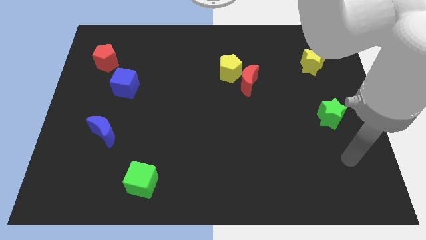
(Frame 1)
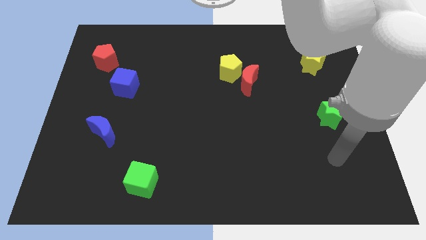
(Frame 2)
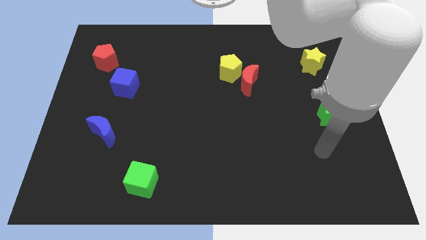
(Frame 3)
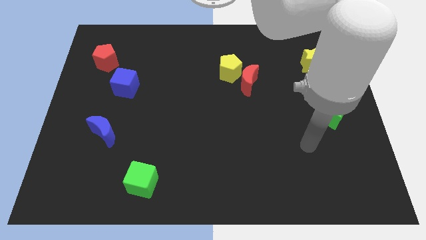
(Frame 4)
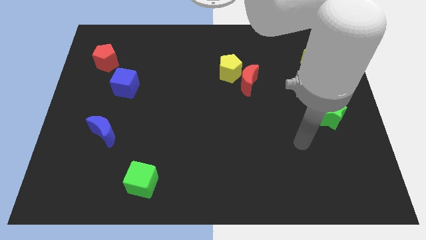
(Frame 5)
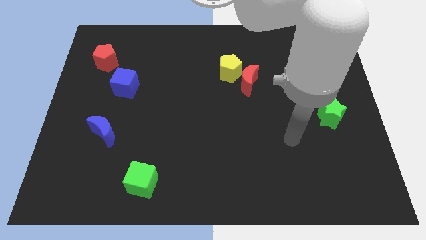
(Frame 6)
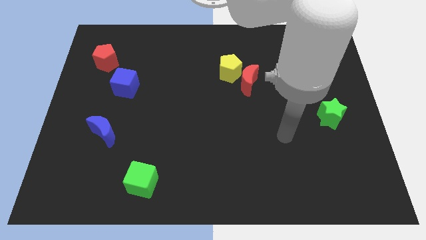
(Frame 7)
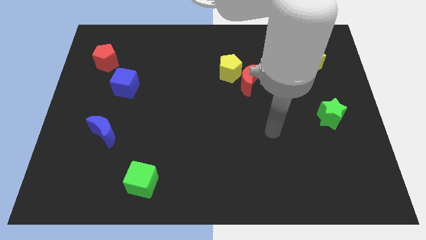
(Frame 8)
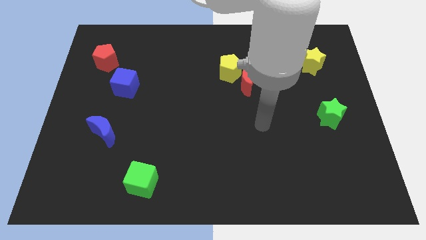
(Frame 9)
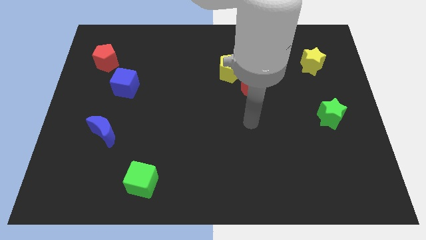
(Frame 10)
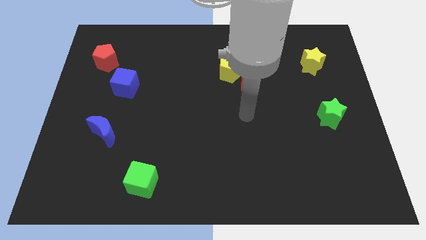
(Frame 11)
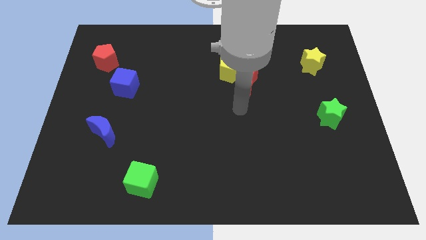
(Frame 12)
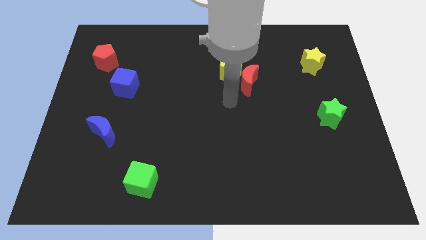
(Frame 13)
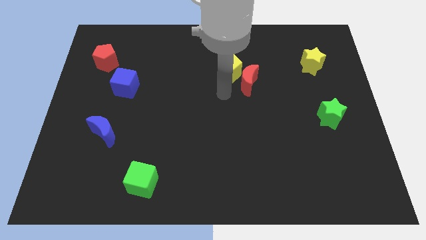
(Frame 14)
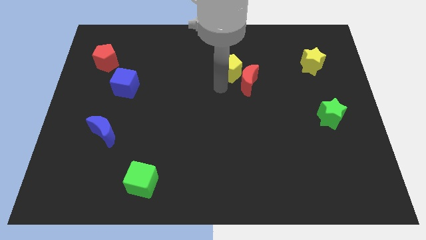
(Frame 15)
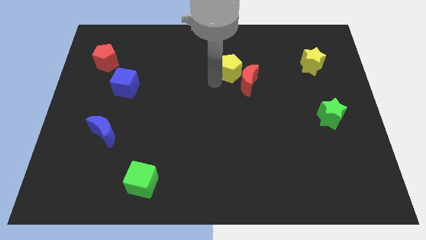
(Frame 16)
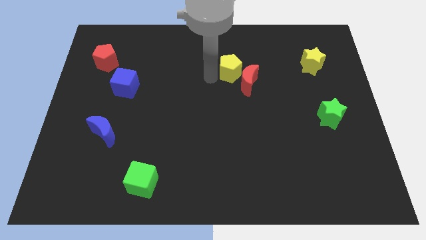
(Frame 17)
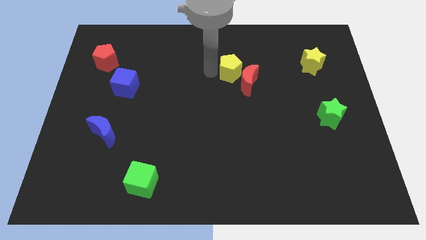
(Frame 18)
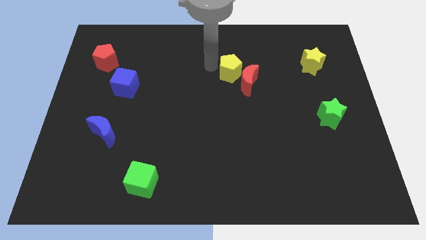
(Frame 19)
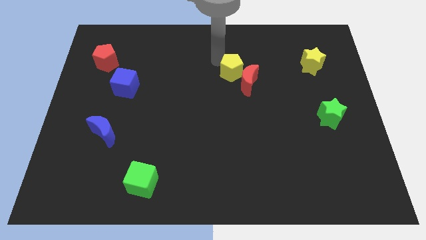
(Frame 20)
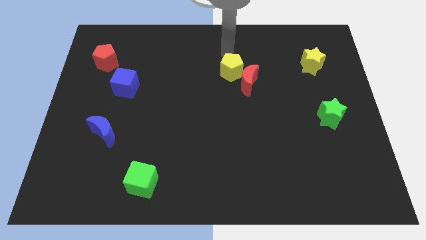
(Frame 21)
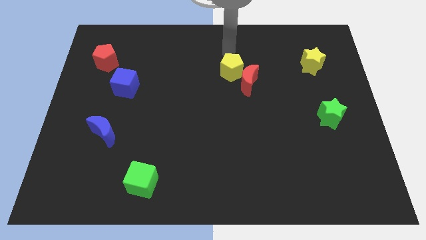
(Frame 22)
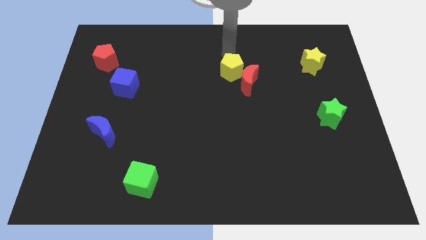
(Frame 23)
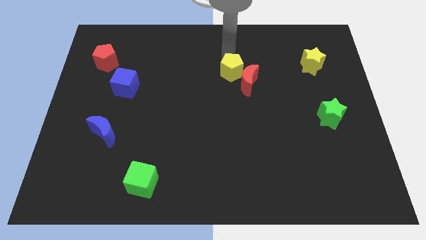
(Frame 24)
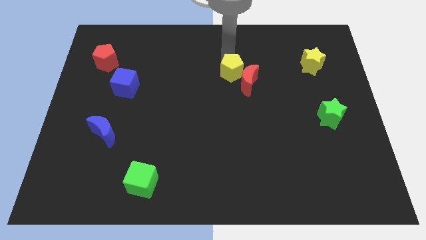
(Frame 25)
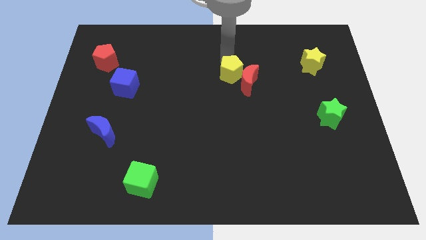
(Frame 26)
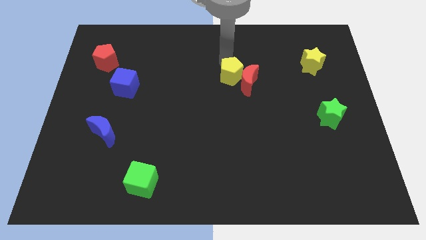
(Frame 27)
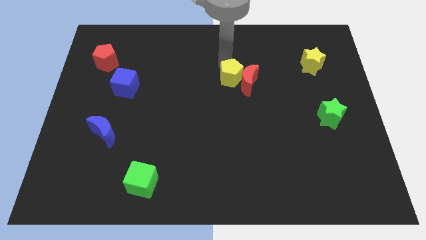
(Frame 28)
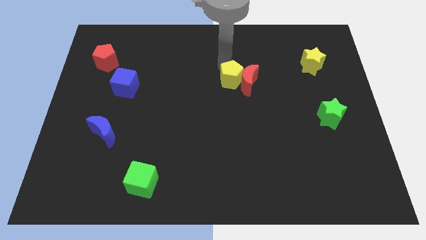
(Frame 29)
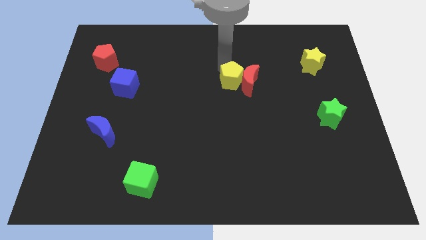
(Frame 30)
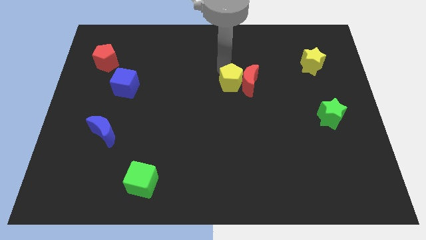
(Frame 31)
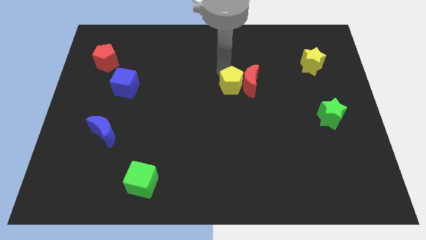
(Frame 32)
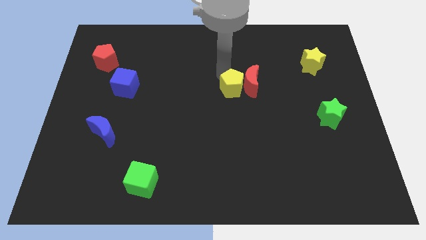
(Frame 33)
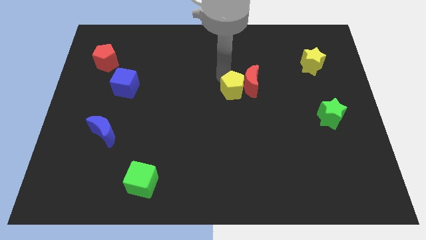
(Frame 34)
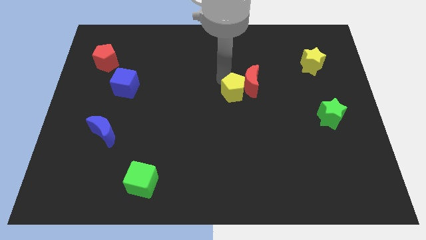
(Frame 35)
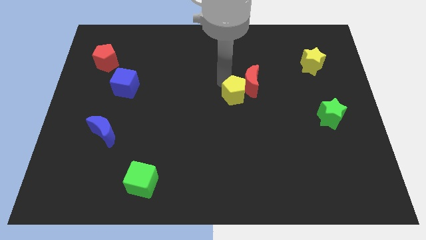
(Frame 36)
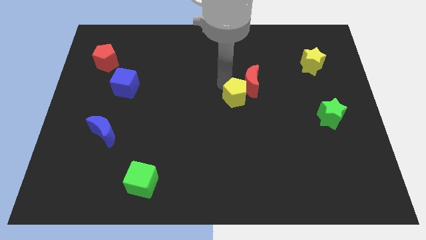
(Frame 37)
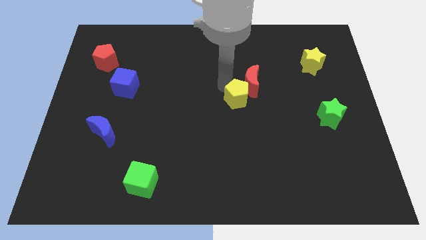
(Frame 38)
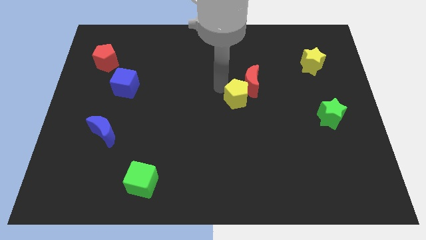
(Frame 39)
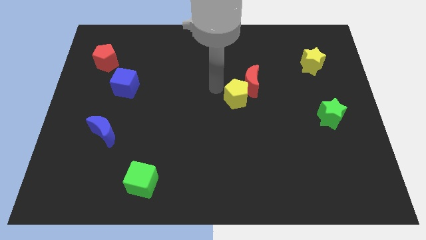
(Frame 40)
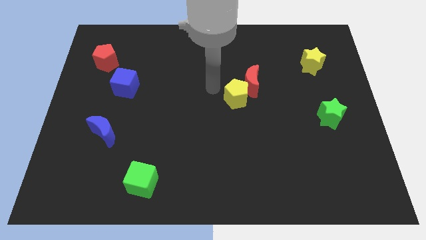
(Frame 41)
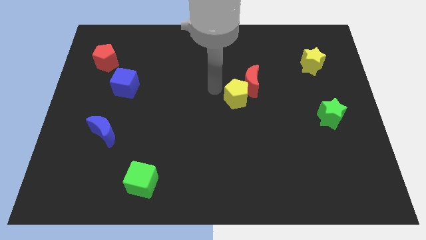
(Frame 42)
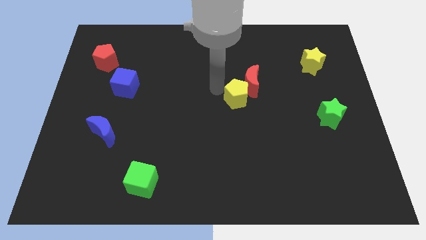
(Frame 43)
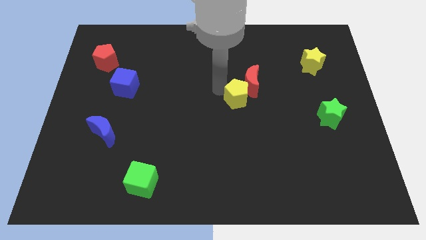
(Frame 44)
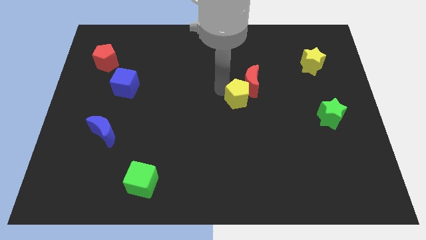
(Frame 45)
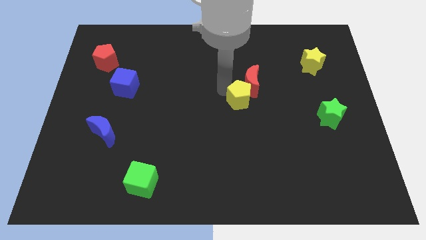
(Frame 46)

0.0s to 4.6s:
push the yellow pentagon somewhat downwards and then to the right

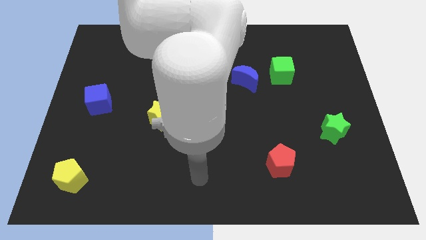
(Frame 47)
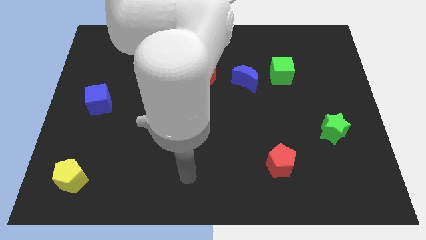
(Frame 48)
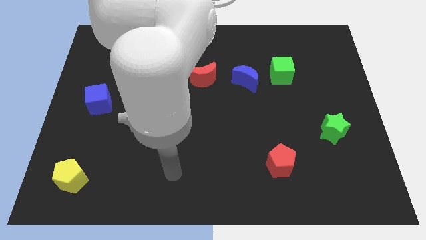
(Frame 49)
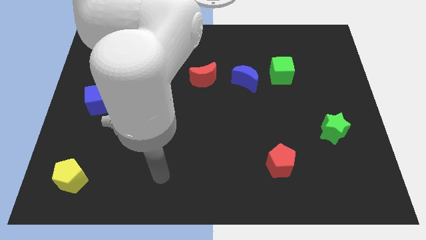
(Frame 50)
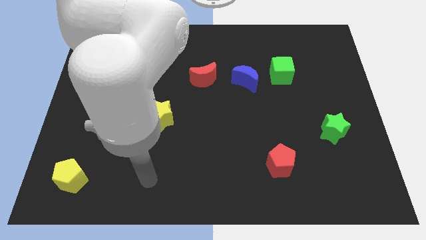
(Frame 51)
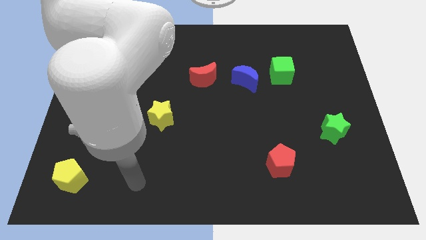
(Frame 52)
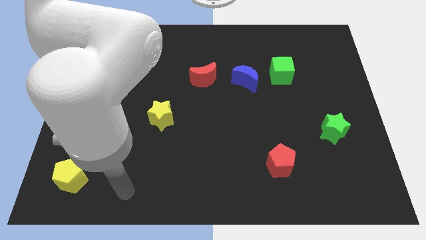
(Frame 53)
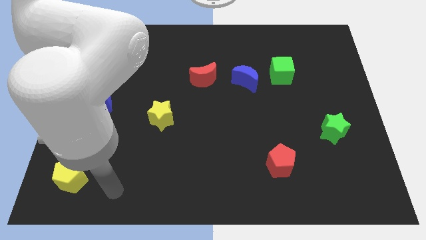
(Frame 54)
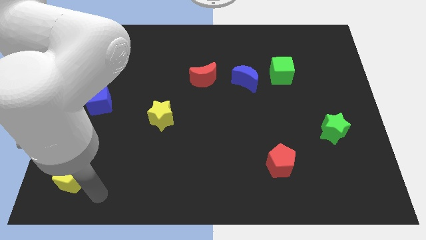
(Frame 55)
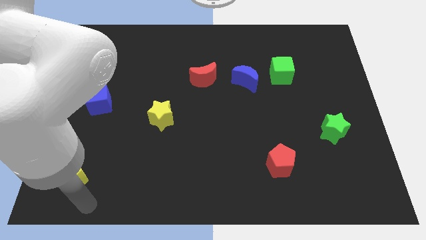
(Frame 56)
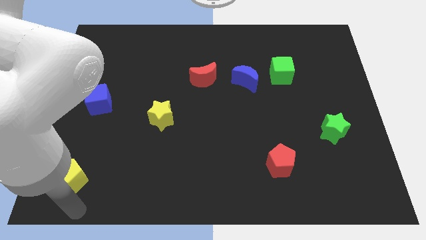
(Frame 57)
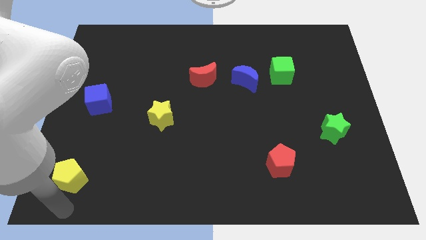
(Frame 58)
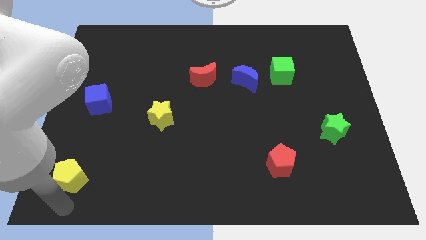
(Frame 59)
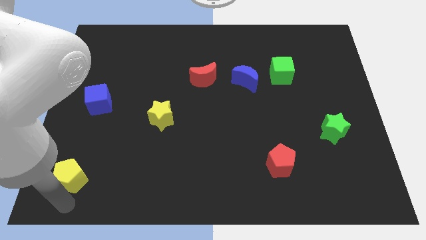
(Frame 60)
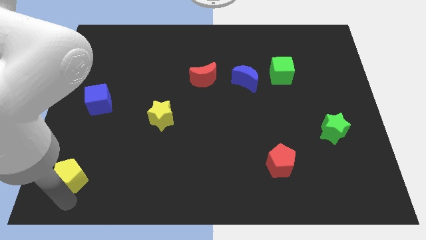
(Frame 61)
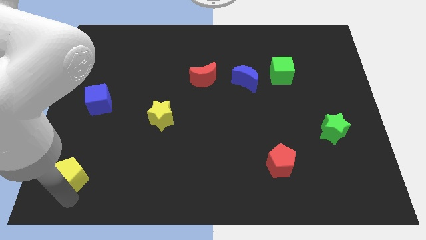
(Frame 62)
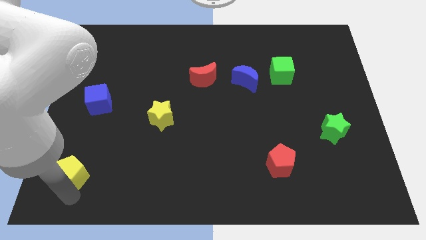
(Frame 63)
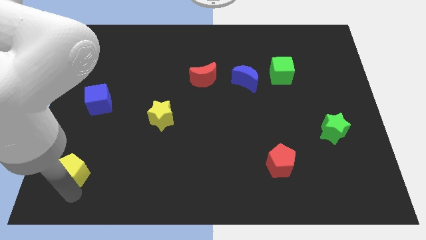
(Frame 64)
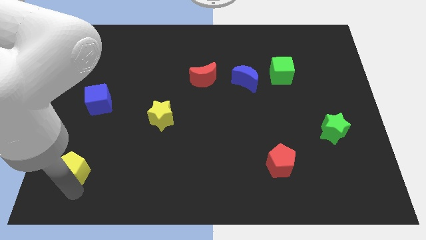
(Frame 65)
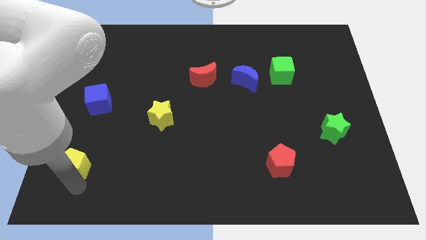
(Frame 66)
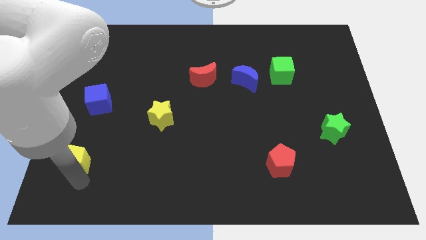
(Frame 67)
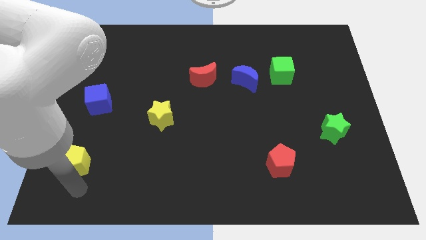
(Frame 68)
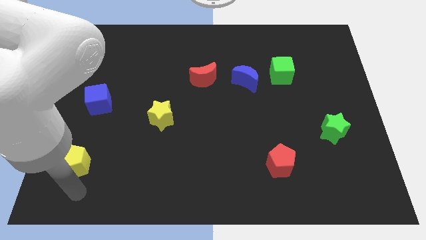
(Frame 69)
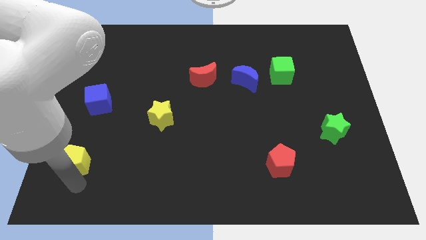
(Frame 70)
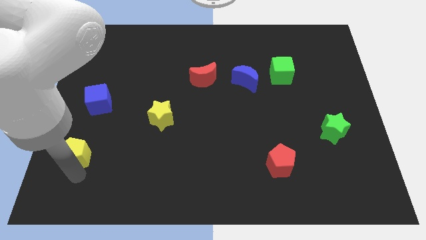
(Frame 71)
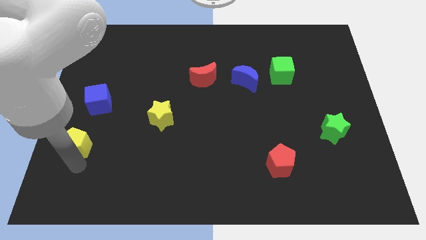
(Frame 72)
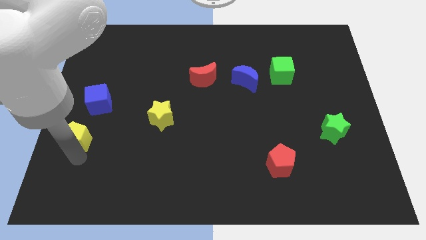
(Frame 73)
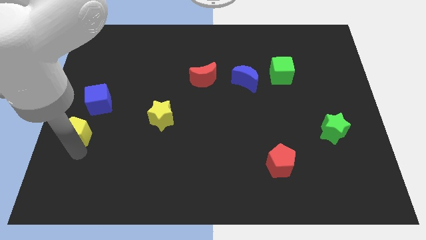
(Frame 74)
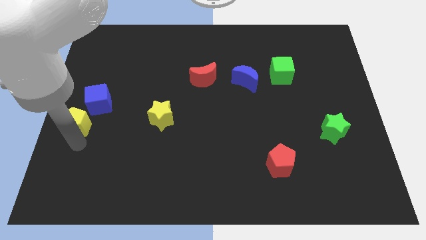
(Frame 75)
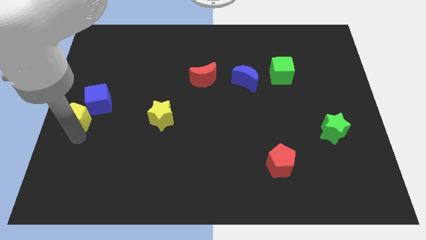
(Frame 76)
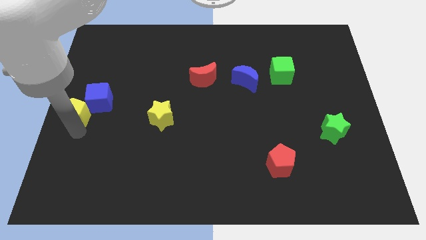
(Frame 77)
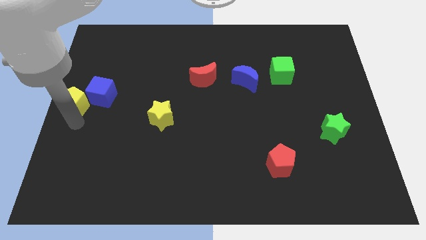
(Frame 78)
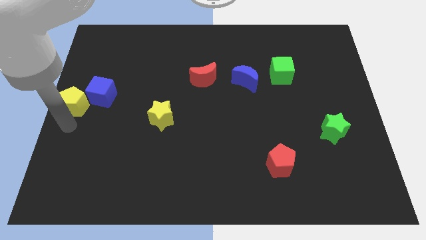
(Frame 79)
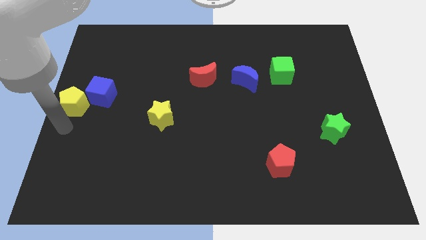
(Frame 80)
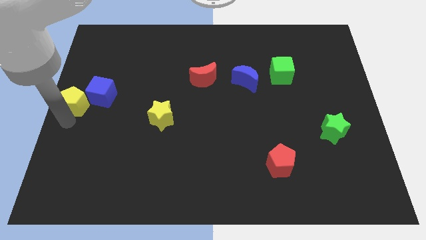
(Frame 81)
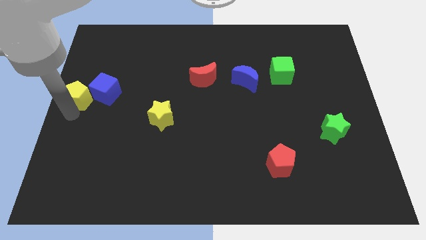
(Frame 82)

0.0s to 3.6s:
slide the yellow pentagon upwards
